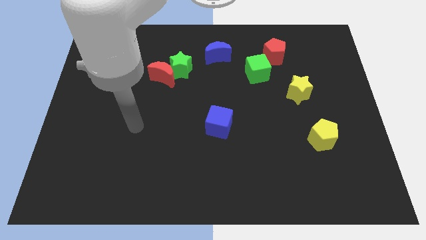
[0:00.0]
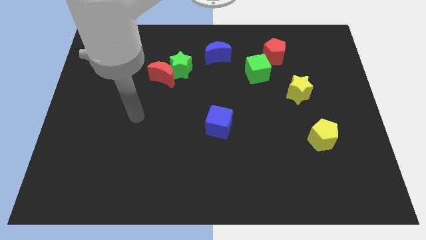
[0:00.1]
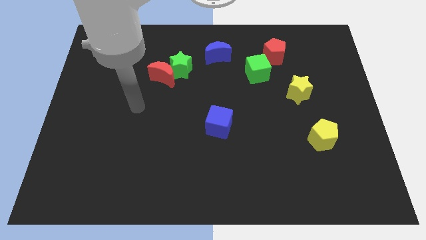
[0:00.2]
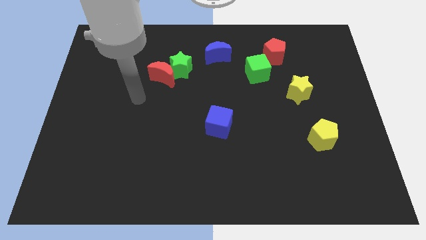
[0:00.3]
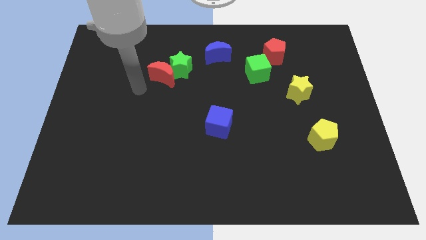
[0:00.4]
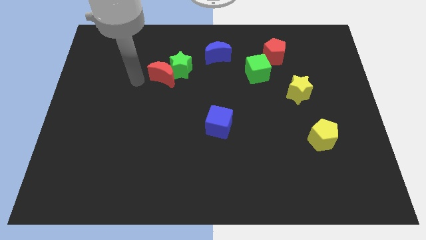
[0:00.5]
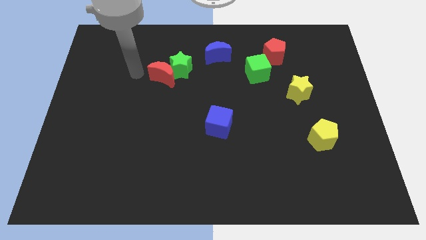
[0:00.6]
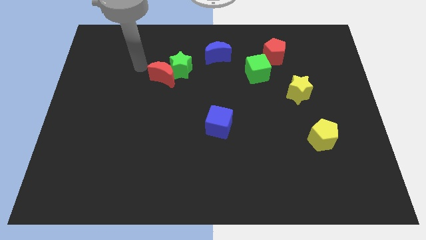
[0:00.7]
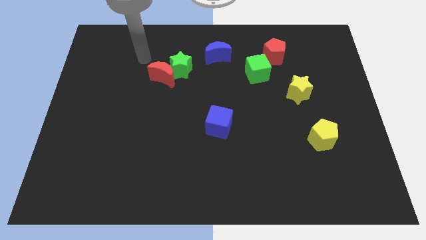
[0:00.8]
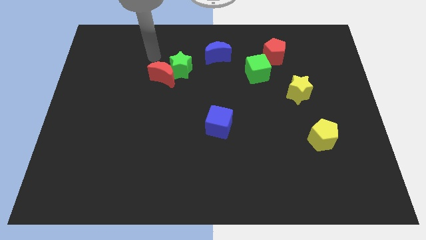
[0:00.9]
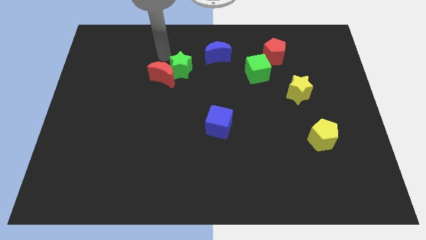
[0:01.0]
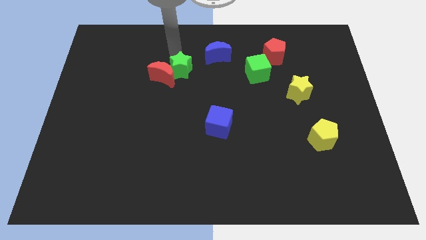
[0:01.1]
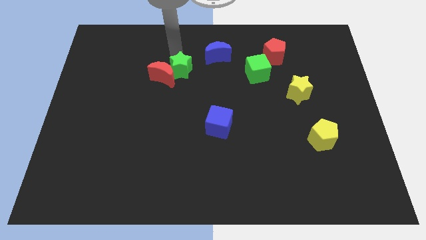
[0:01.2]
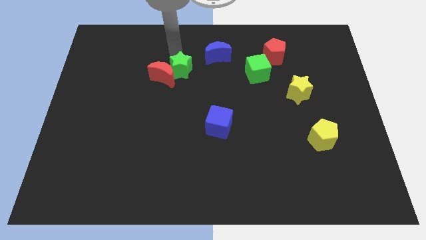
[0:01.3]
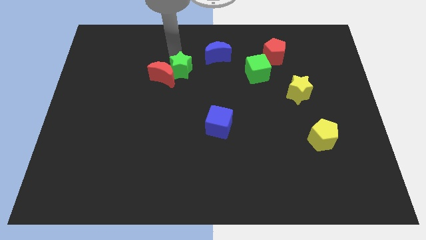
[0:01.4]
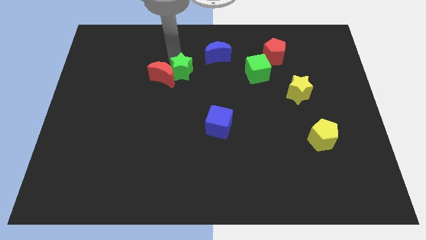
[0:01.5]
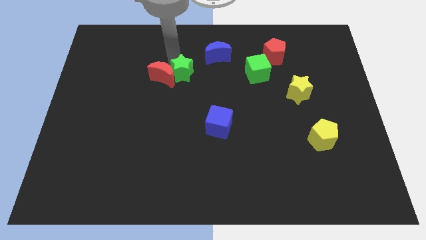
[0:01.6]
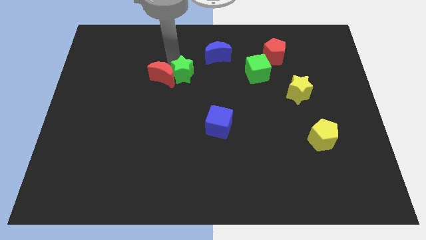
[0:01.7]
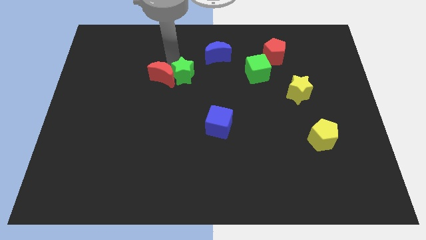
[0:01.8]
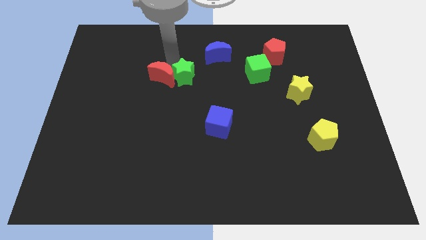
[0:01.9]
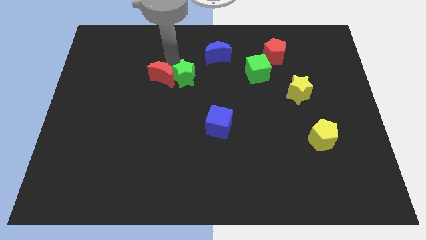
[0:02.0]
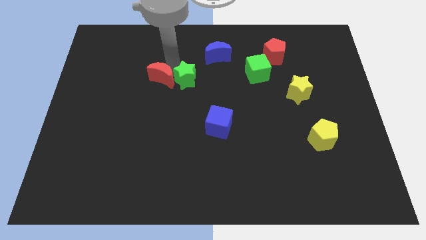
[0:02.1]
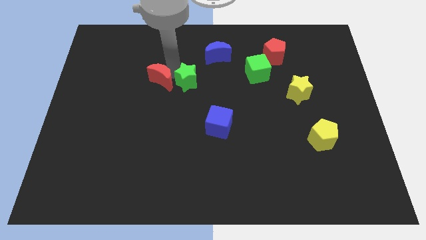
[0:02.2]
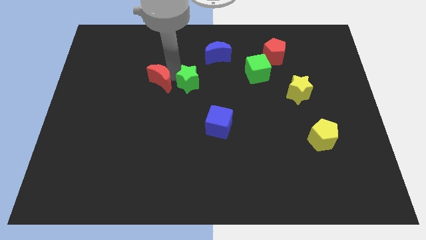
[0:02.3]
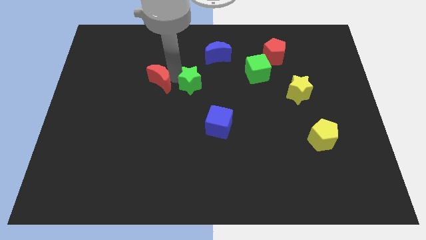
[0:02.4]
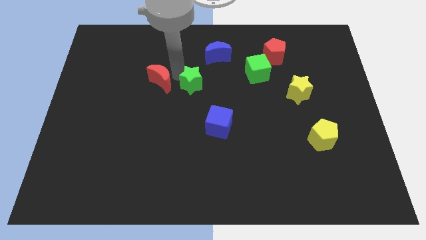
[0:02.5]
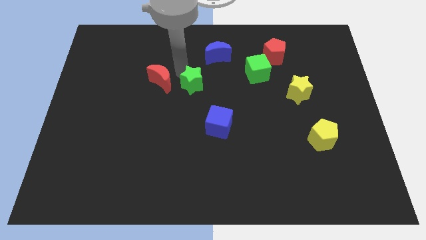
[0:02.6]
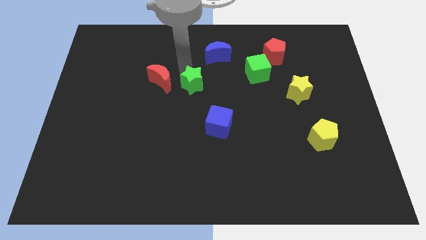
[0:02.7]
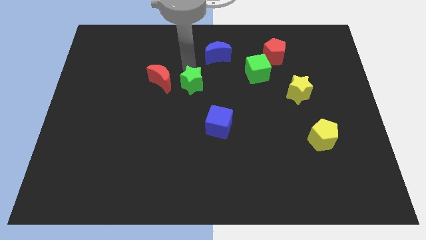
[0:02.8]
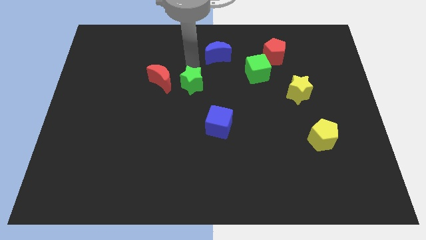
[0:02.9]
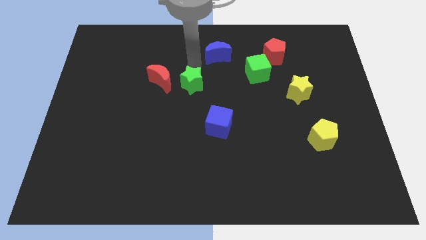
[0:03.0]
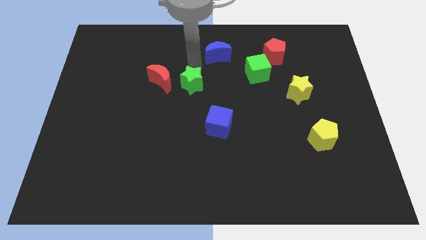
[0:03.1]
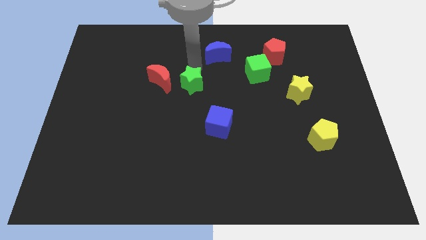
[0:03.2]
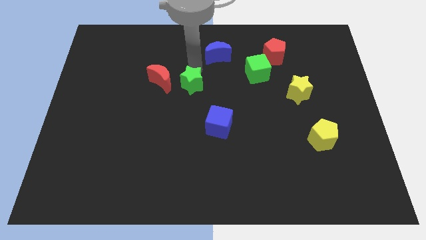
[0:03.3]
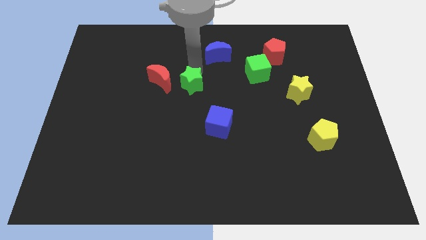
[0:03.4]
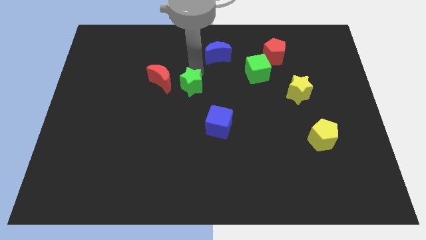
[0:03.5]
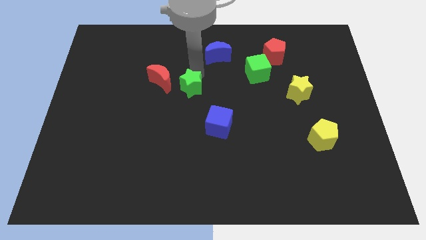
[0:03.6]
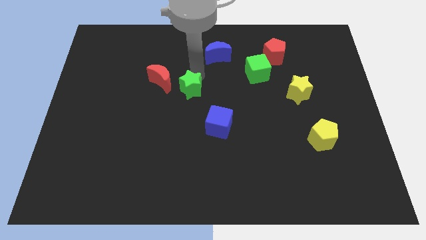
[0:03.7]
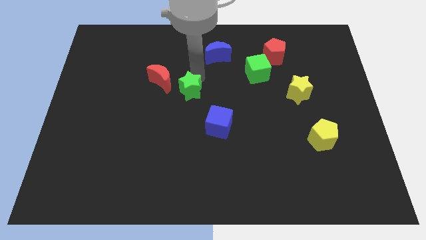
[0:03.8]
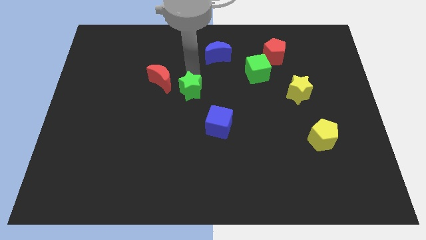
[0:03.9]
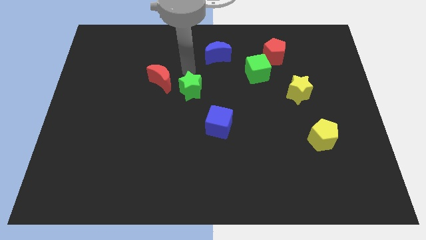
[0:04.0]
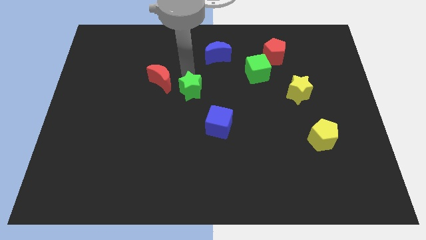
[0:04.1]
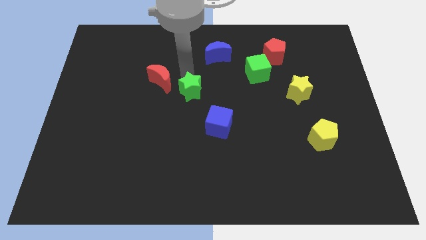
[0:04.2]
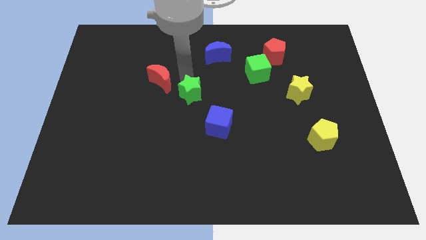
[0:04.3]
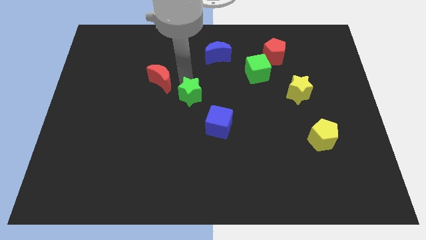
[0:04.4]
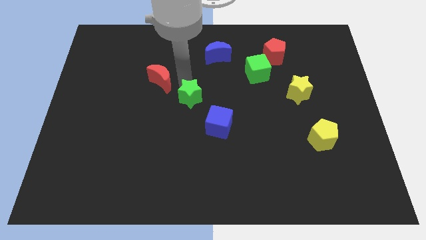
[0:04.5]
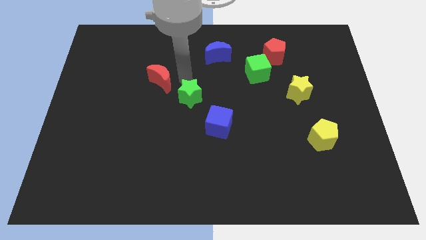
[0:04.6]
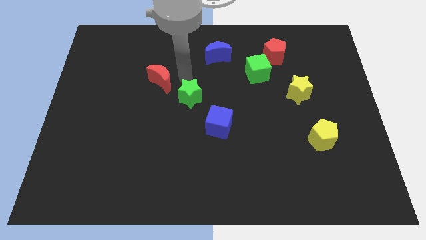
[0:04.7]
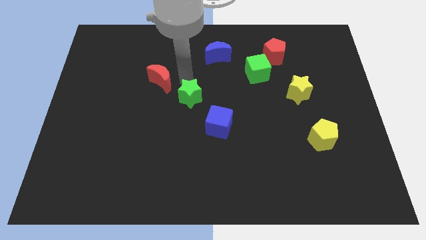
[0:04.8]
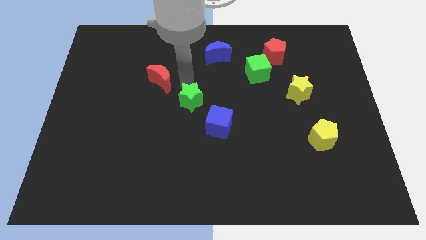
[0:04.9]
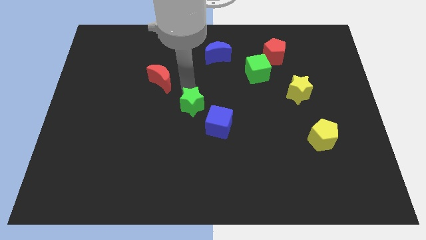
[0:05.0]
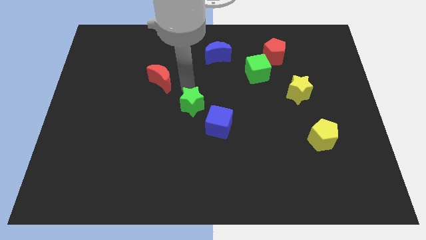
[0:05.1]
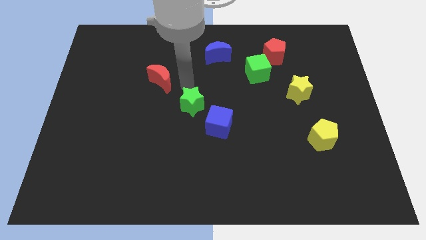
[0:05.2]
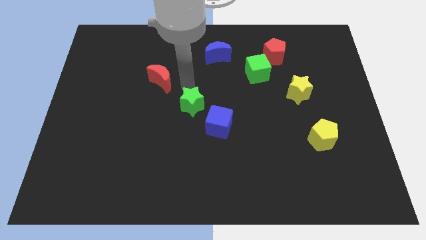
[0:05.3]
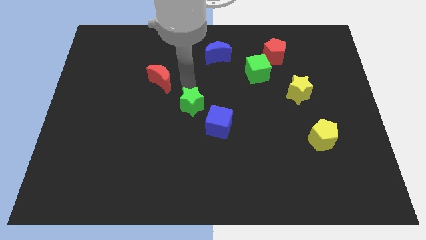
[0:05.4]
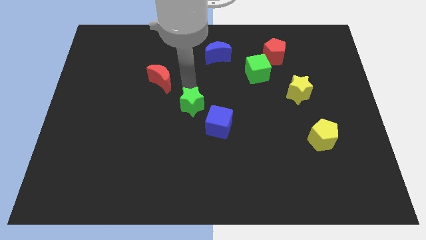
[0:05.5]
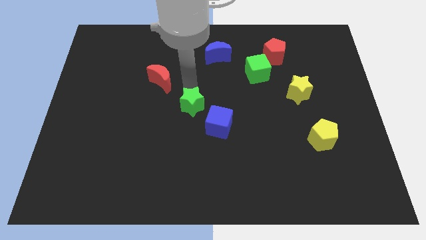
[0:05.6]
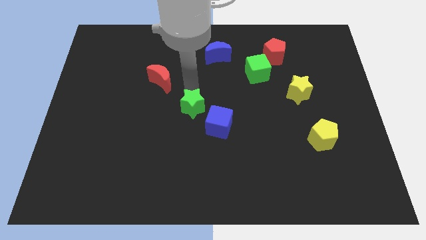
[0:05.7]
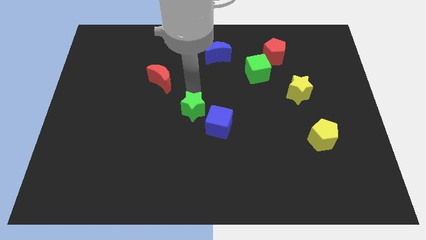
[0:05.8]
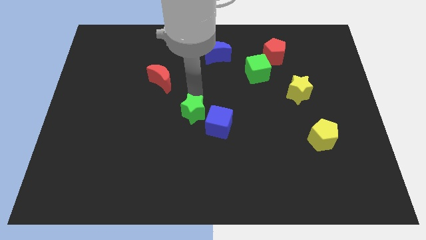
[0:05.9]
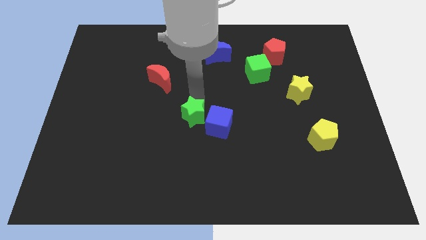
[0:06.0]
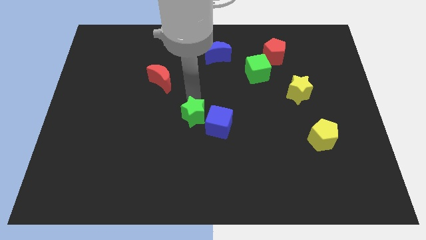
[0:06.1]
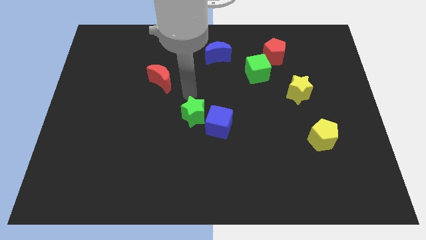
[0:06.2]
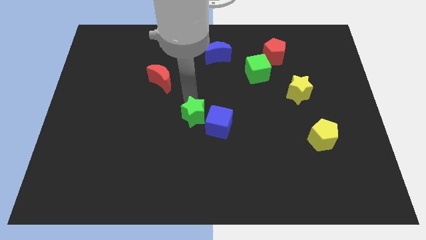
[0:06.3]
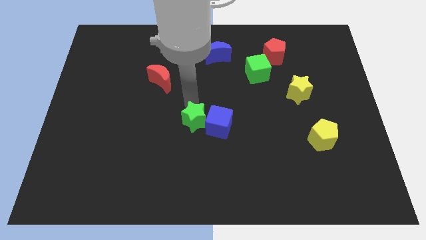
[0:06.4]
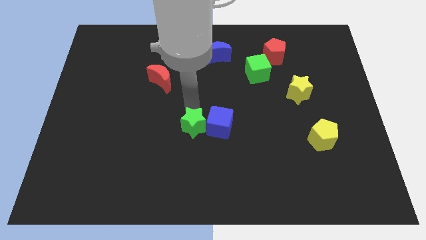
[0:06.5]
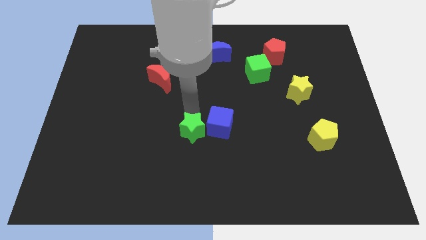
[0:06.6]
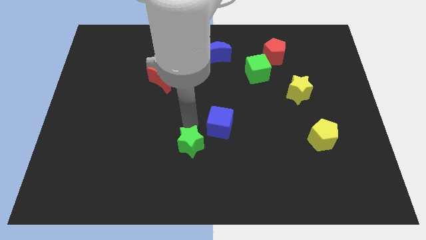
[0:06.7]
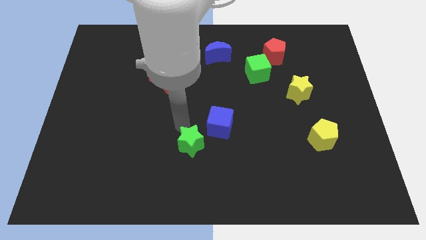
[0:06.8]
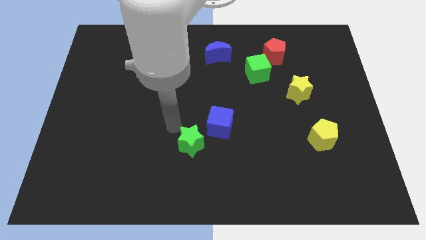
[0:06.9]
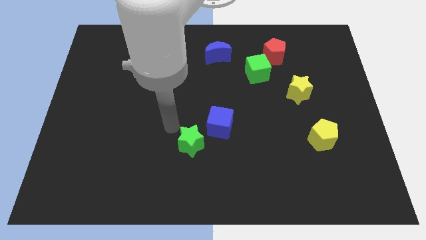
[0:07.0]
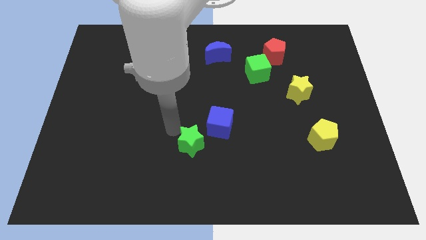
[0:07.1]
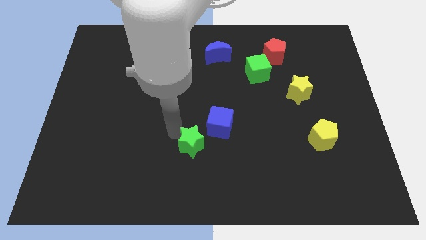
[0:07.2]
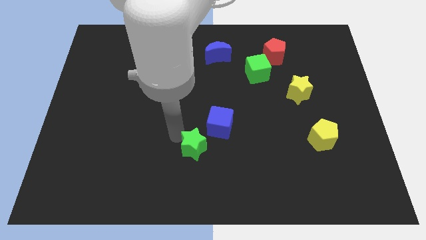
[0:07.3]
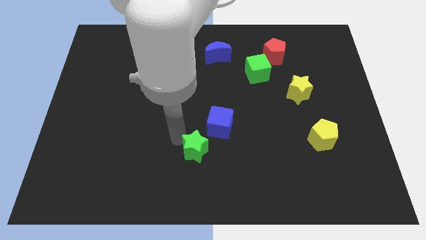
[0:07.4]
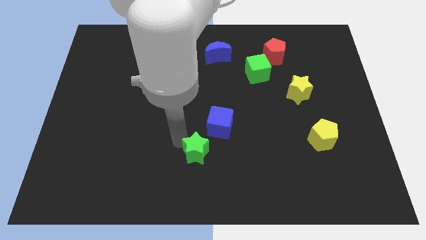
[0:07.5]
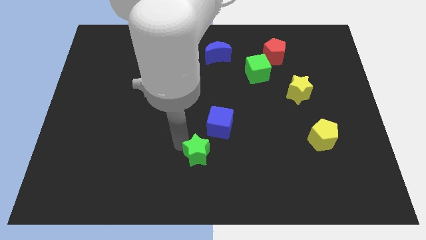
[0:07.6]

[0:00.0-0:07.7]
slide the green star to the bottom side
